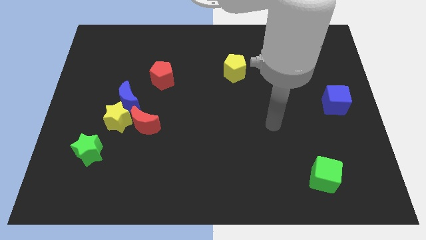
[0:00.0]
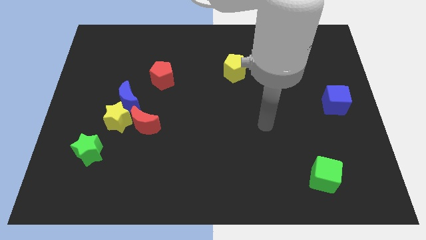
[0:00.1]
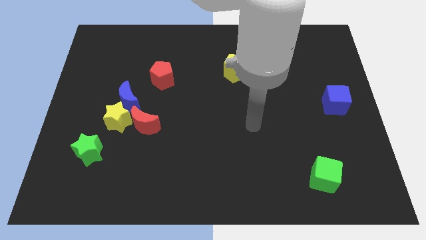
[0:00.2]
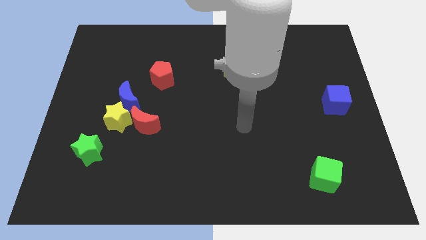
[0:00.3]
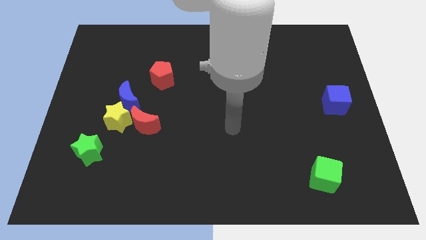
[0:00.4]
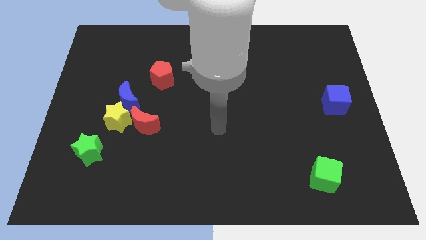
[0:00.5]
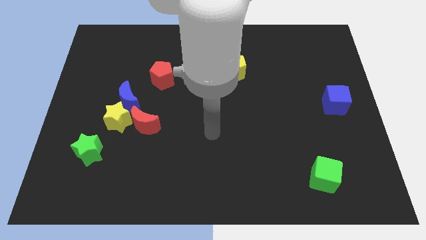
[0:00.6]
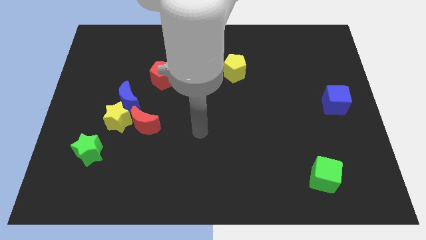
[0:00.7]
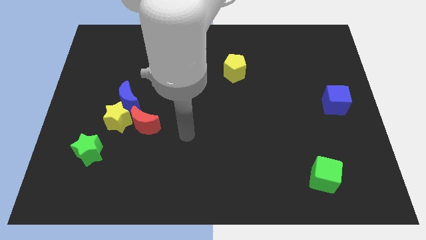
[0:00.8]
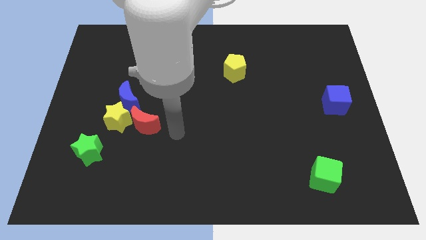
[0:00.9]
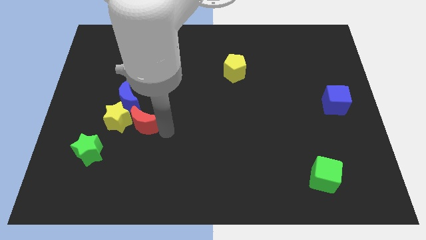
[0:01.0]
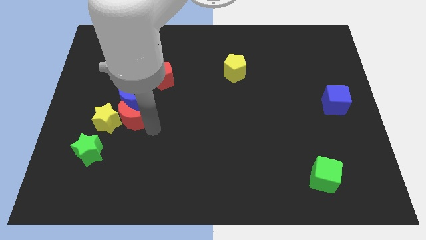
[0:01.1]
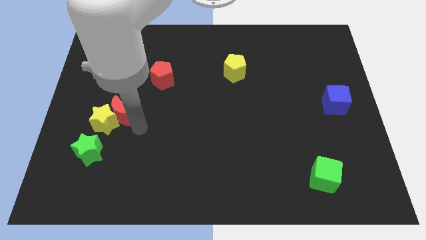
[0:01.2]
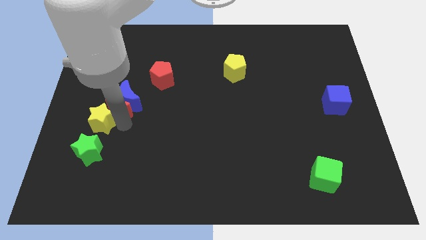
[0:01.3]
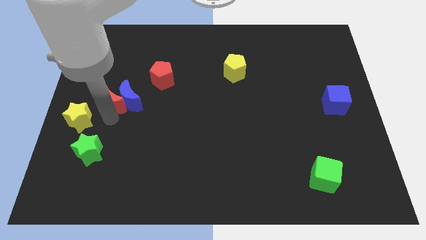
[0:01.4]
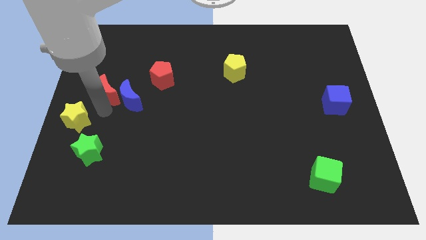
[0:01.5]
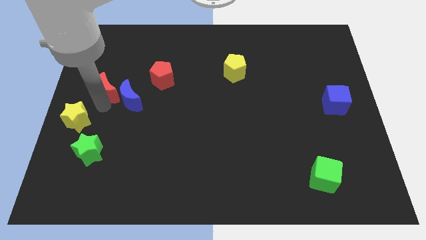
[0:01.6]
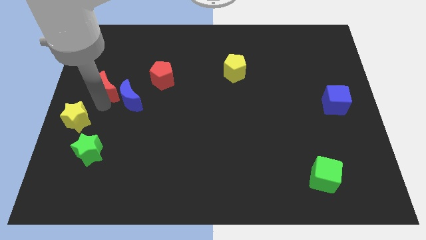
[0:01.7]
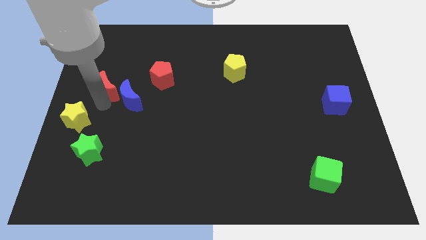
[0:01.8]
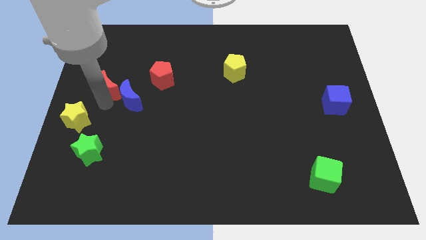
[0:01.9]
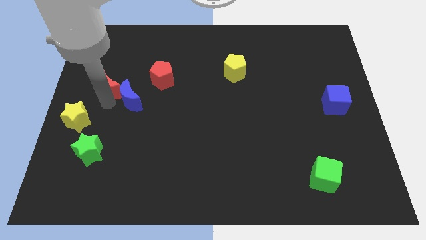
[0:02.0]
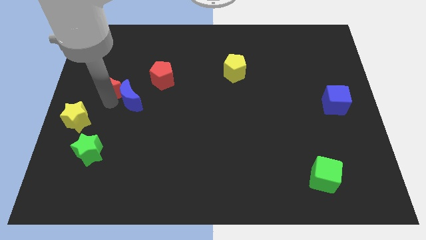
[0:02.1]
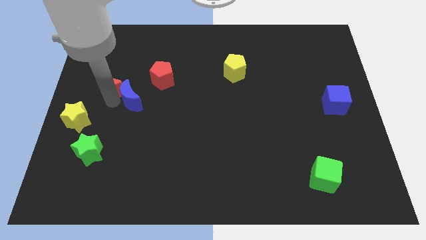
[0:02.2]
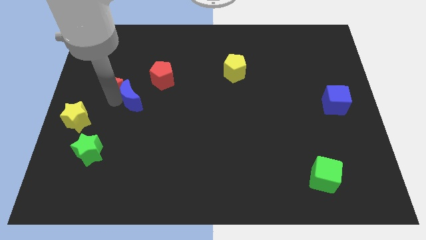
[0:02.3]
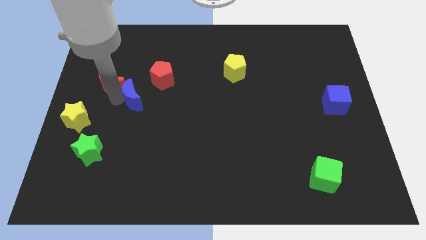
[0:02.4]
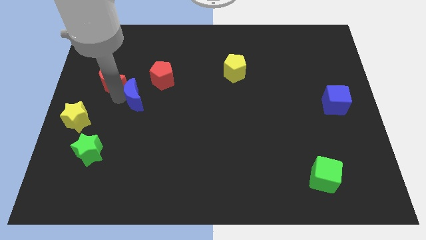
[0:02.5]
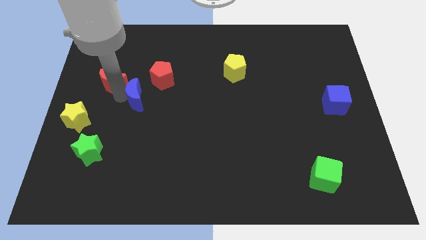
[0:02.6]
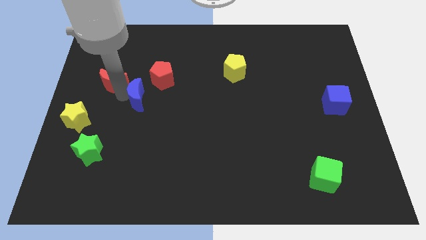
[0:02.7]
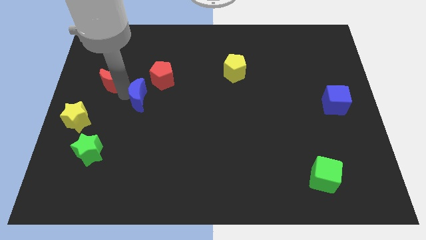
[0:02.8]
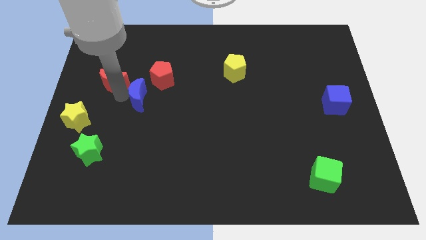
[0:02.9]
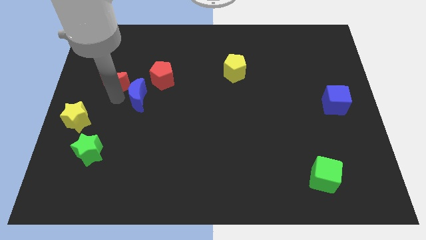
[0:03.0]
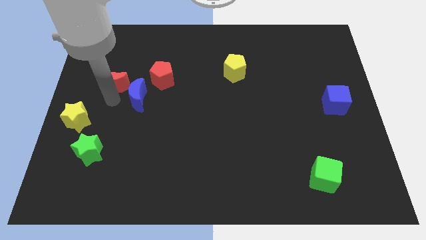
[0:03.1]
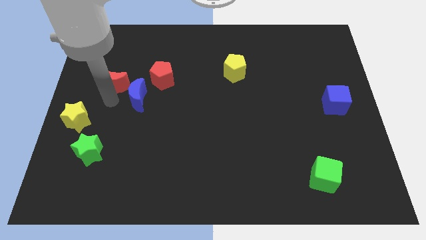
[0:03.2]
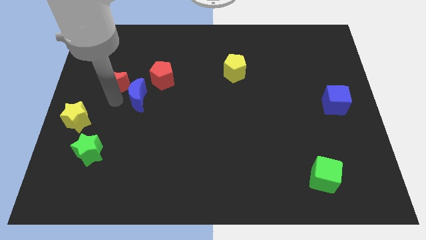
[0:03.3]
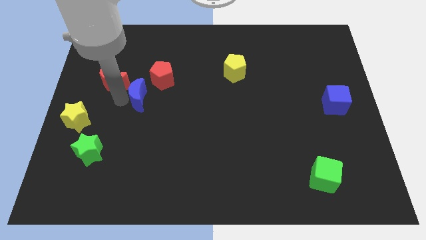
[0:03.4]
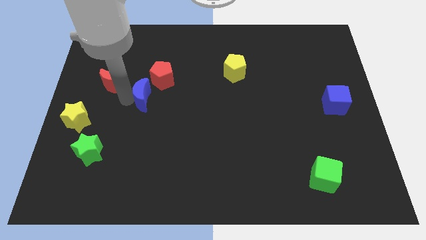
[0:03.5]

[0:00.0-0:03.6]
separate the blue moon from the yellow star and red moon

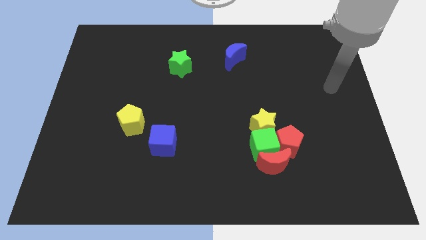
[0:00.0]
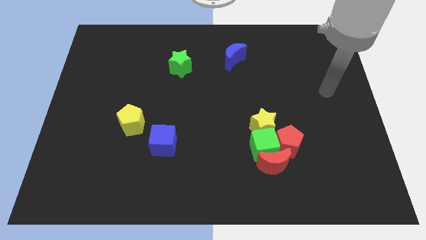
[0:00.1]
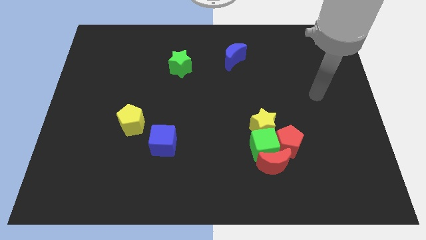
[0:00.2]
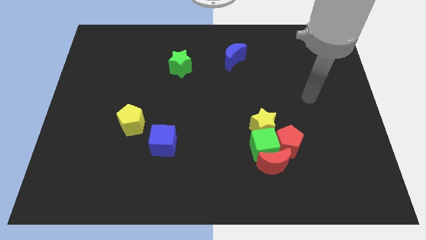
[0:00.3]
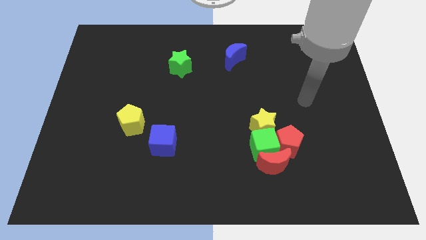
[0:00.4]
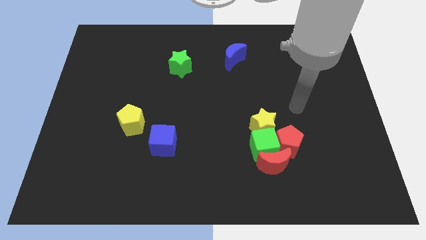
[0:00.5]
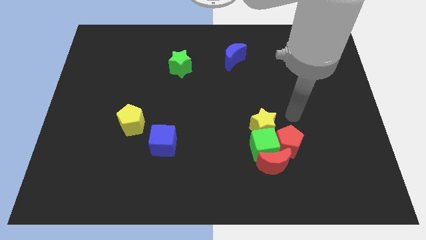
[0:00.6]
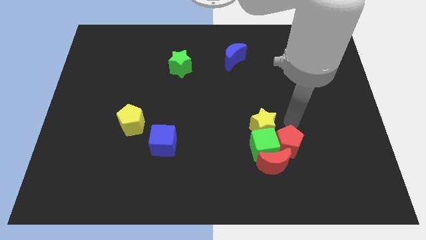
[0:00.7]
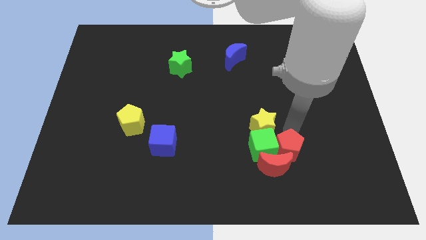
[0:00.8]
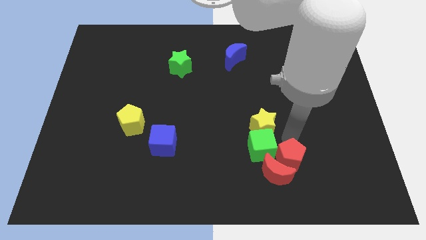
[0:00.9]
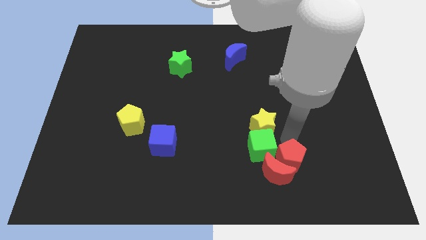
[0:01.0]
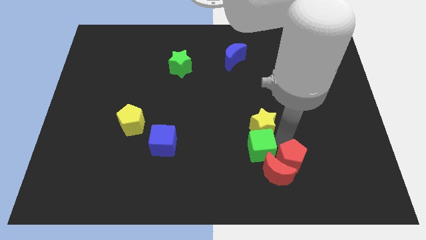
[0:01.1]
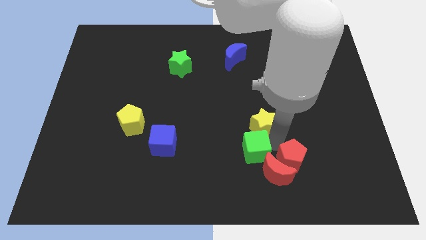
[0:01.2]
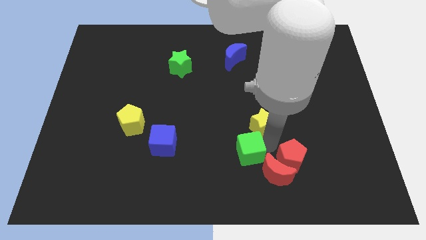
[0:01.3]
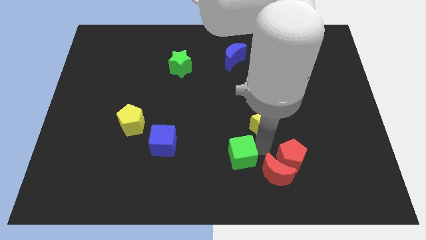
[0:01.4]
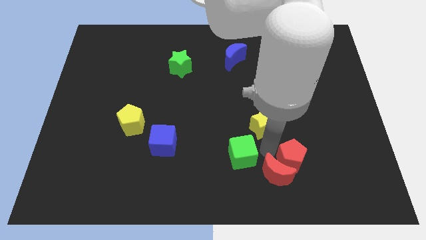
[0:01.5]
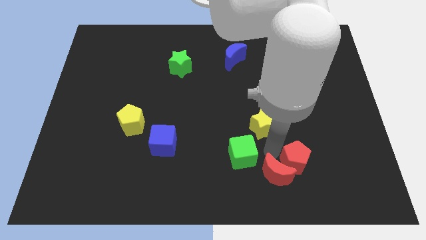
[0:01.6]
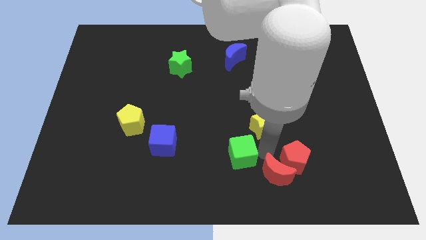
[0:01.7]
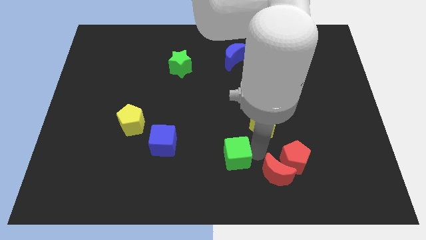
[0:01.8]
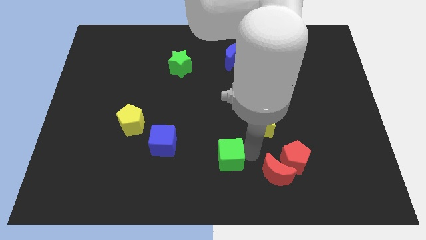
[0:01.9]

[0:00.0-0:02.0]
separate the green cube from the red moon, red pentagon, and yellow star

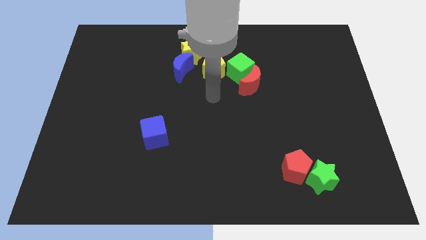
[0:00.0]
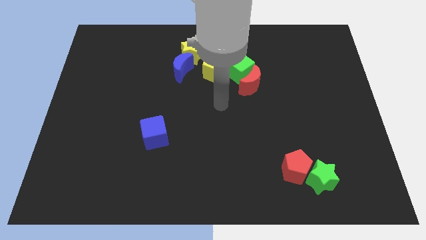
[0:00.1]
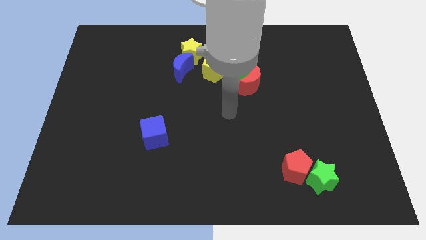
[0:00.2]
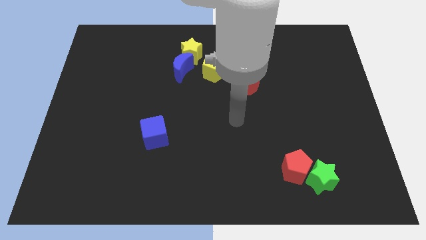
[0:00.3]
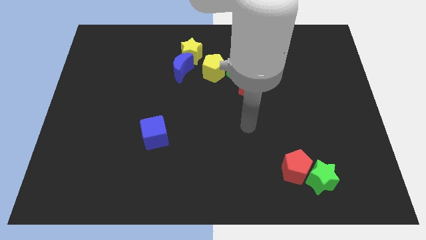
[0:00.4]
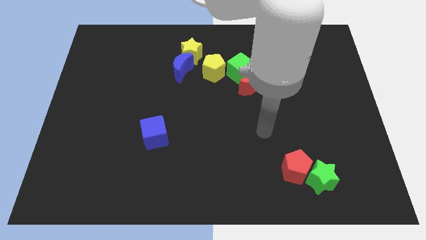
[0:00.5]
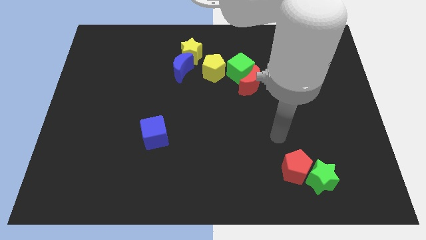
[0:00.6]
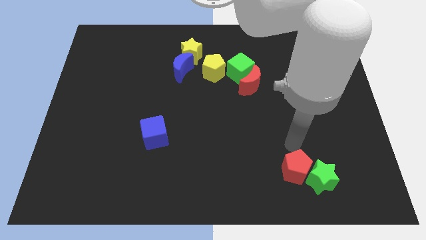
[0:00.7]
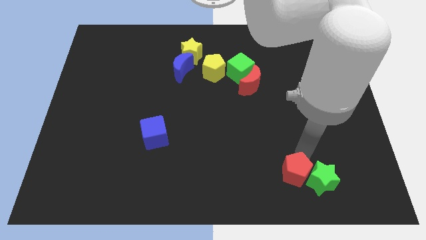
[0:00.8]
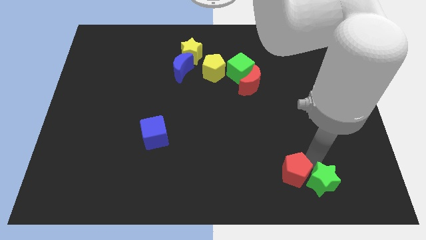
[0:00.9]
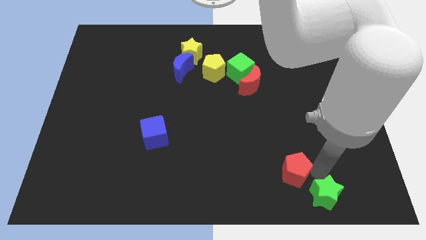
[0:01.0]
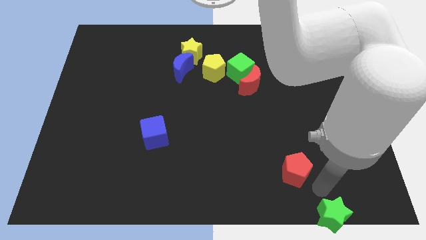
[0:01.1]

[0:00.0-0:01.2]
separate the red pentagon from the green star

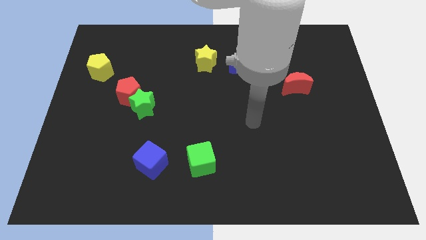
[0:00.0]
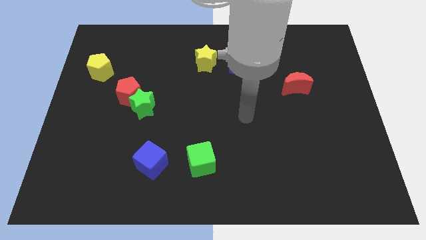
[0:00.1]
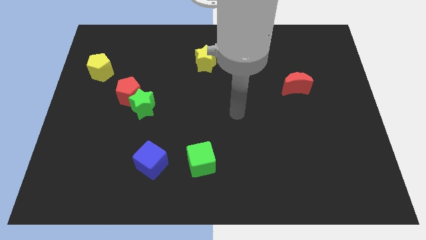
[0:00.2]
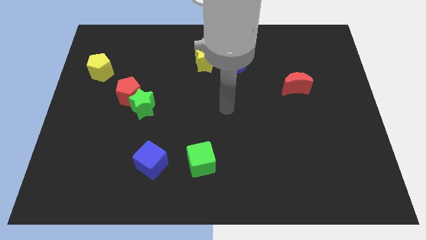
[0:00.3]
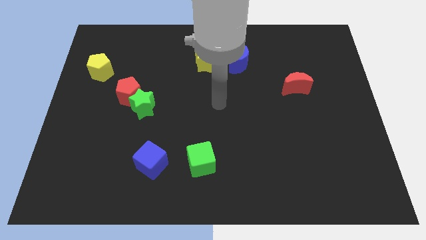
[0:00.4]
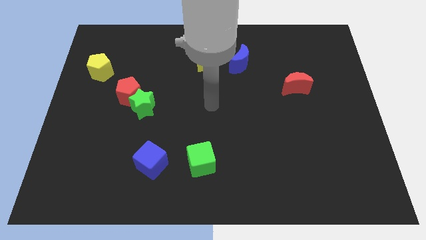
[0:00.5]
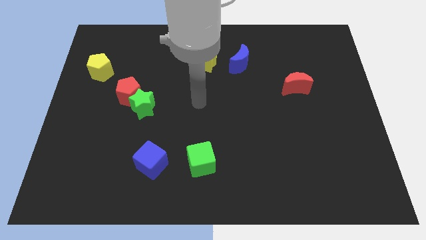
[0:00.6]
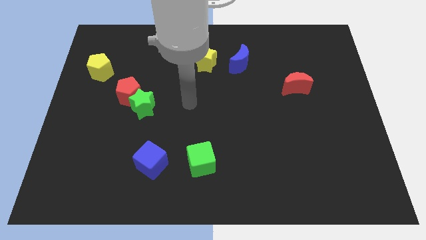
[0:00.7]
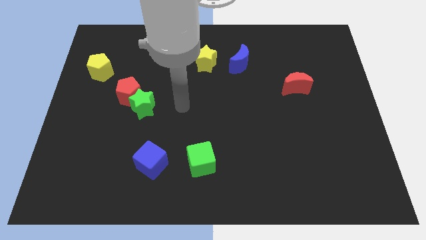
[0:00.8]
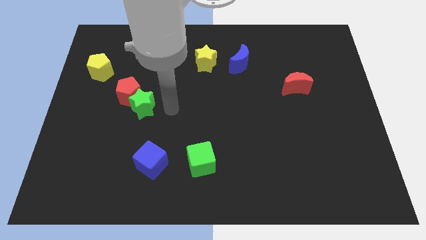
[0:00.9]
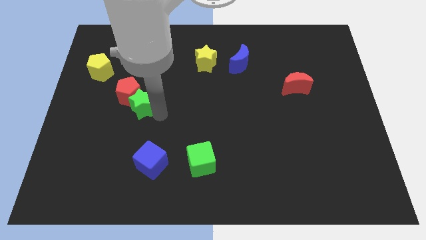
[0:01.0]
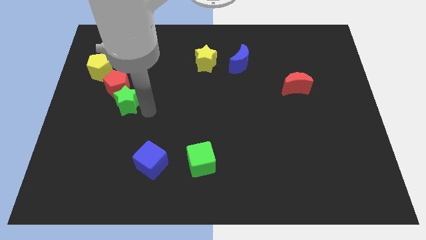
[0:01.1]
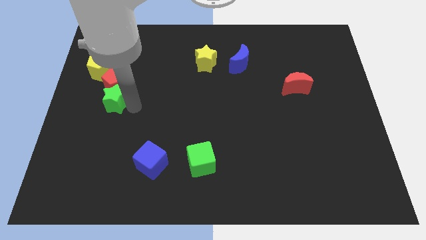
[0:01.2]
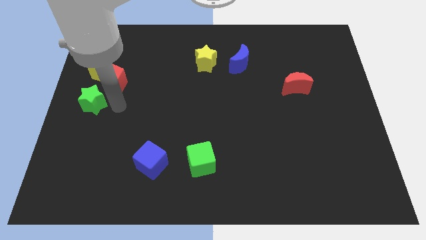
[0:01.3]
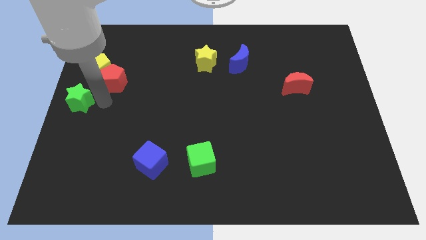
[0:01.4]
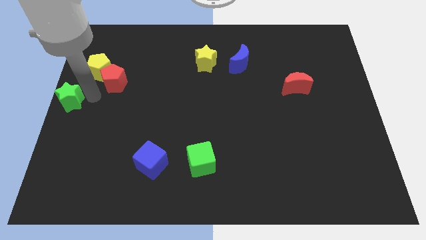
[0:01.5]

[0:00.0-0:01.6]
move the red pentagon away from the green star

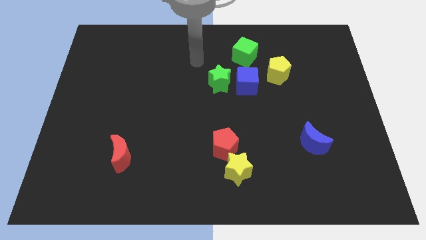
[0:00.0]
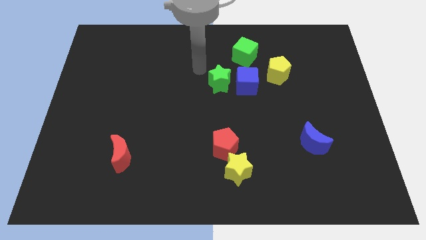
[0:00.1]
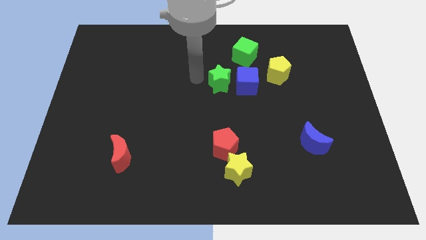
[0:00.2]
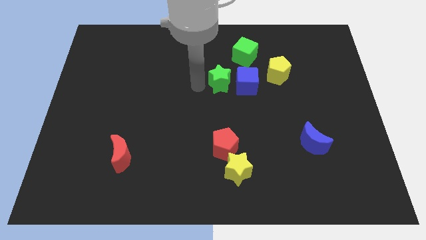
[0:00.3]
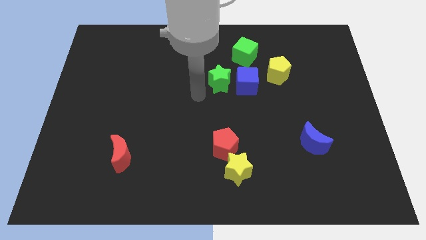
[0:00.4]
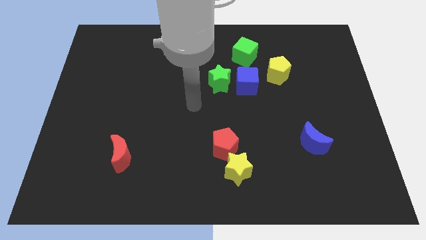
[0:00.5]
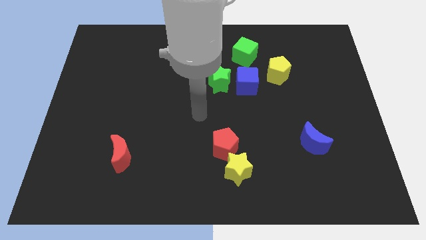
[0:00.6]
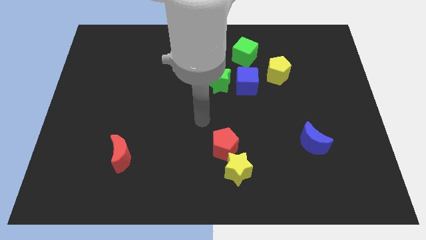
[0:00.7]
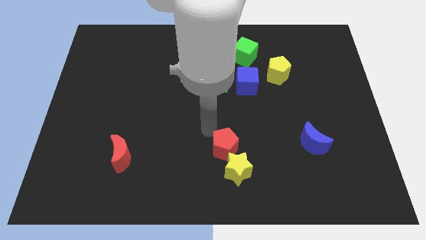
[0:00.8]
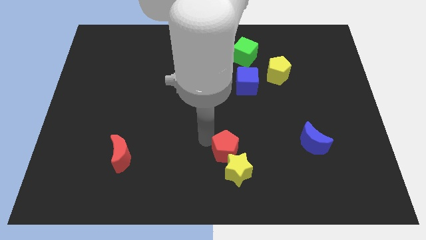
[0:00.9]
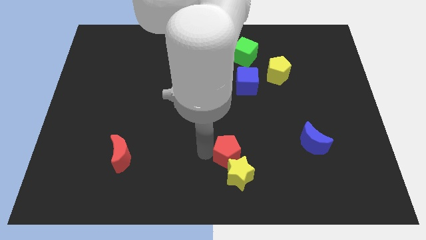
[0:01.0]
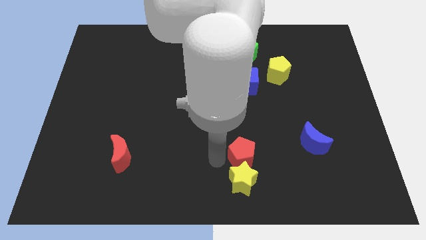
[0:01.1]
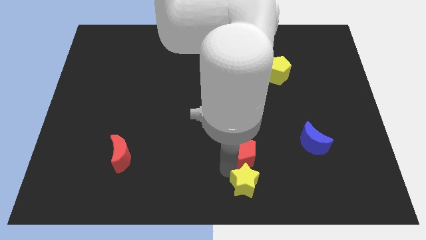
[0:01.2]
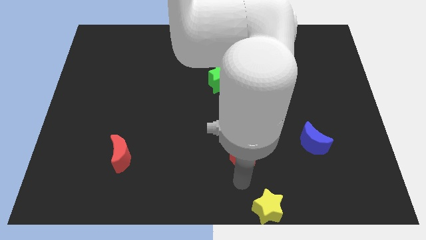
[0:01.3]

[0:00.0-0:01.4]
separate the red pentagon from the yellow star
